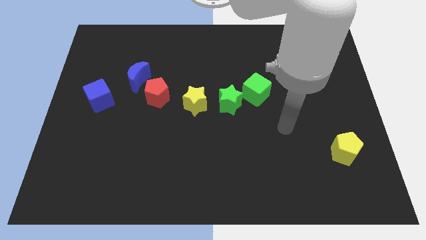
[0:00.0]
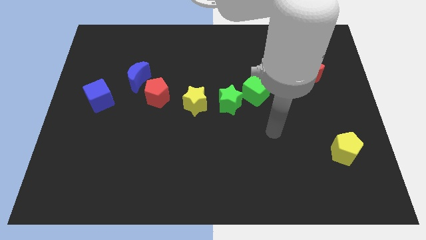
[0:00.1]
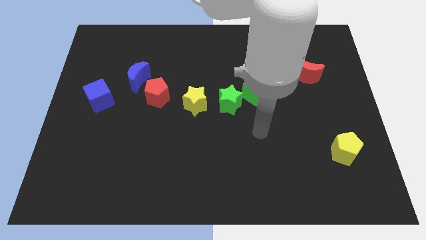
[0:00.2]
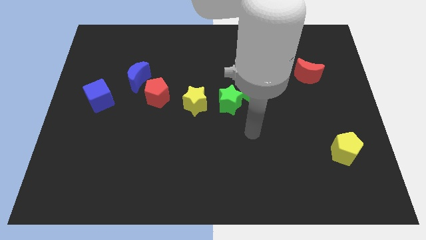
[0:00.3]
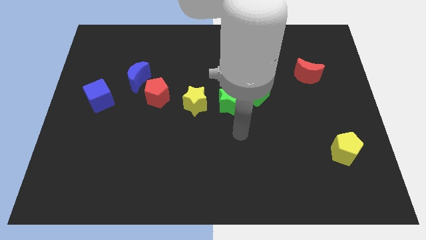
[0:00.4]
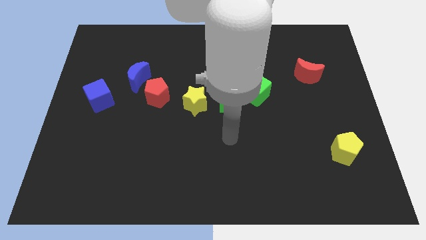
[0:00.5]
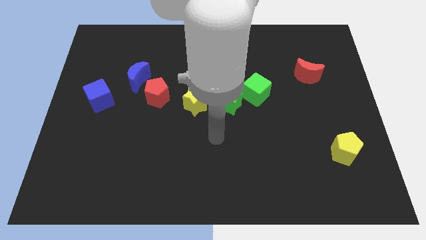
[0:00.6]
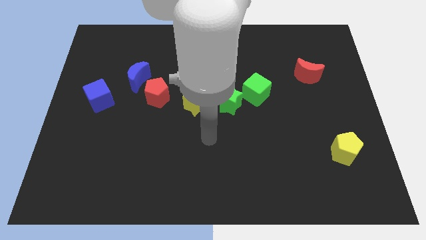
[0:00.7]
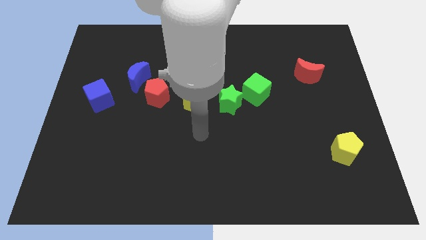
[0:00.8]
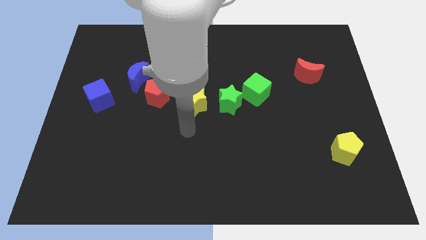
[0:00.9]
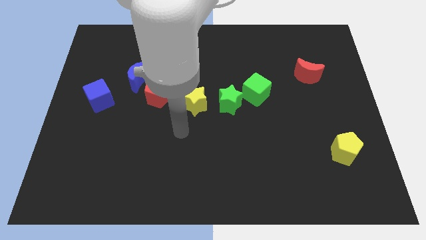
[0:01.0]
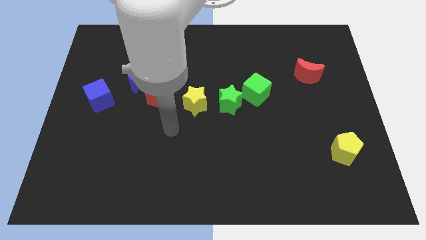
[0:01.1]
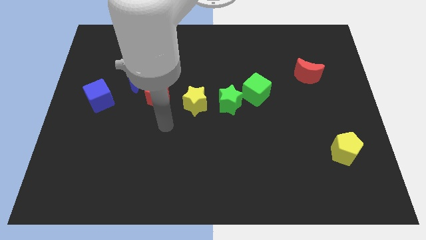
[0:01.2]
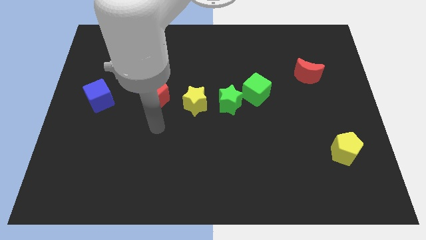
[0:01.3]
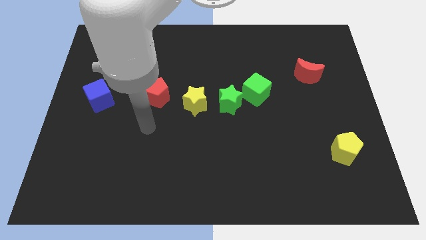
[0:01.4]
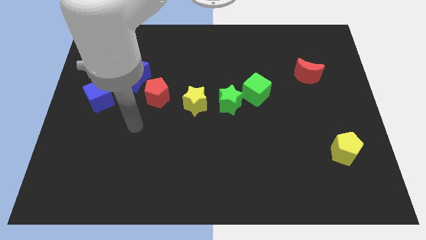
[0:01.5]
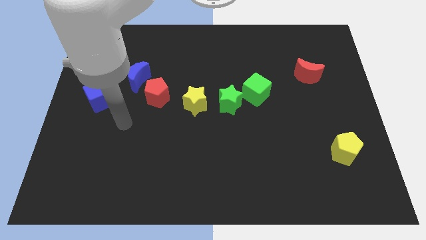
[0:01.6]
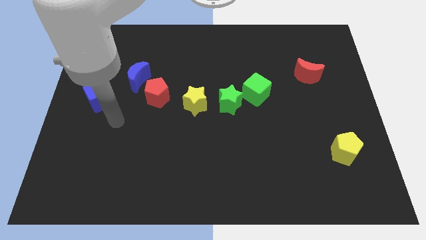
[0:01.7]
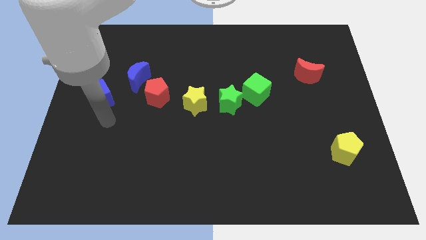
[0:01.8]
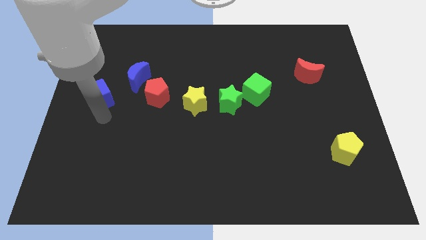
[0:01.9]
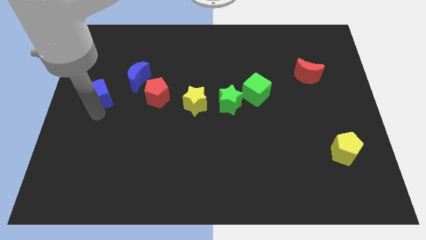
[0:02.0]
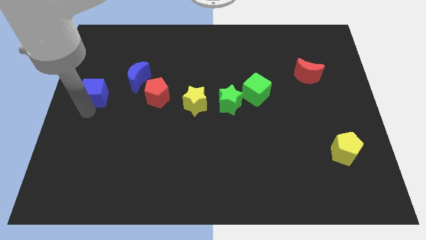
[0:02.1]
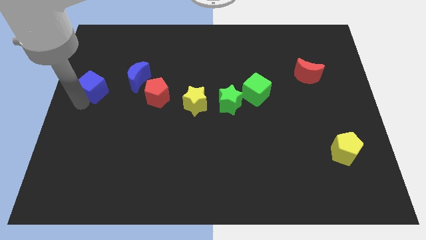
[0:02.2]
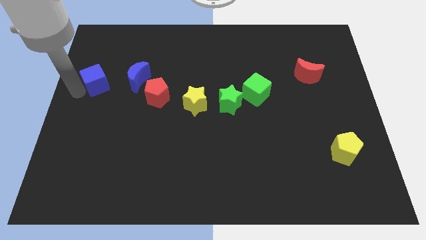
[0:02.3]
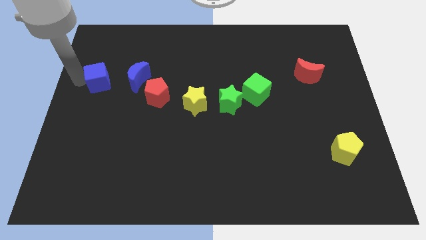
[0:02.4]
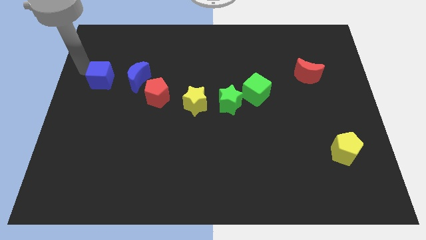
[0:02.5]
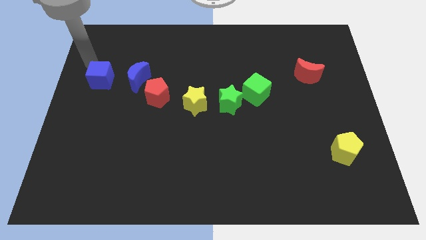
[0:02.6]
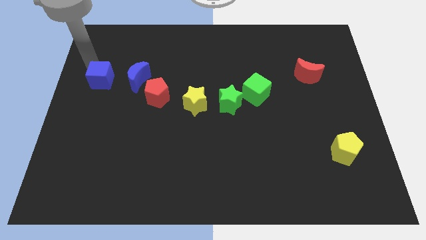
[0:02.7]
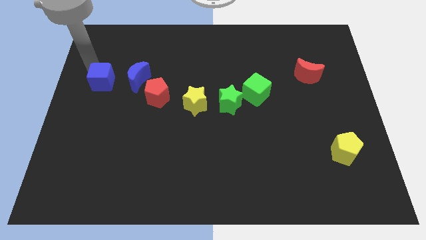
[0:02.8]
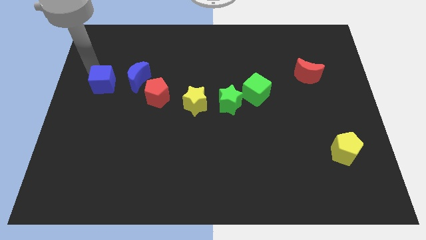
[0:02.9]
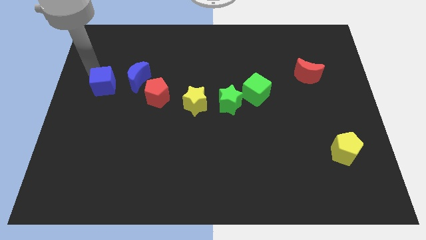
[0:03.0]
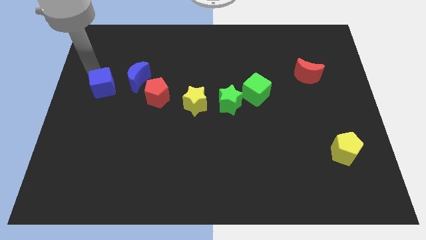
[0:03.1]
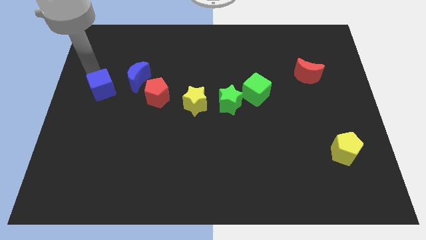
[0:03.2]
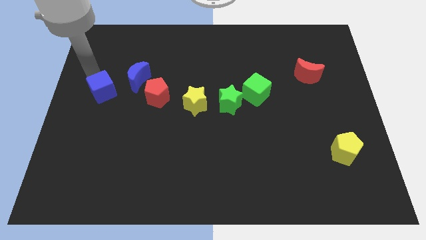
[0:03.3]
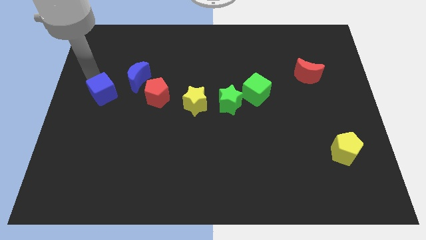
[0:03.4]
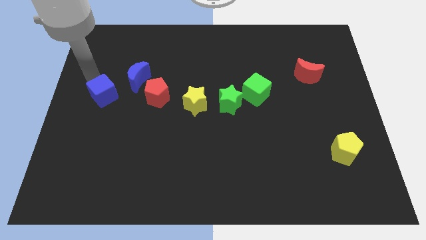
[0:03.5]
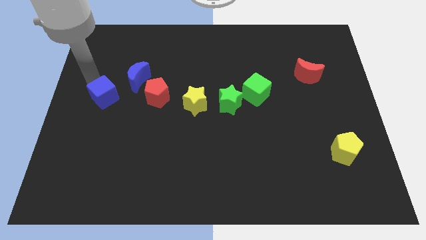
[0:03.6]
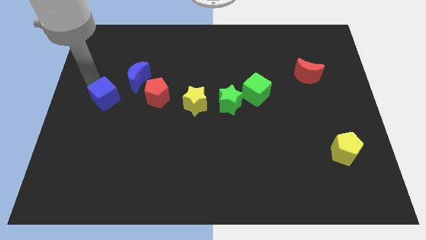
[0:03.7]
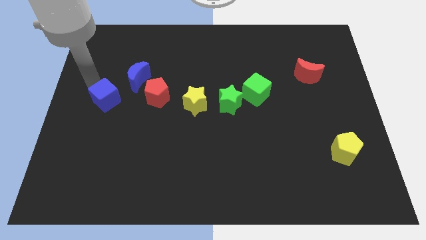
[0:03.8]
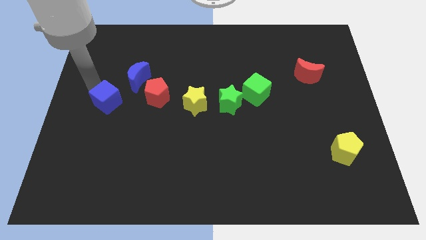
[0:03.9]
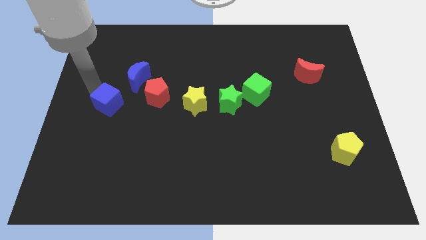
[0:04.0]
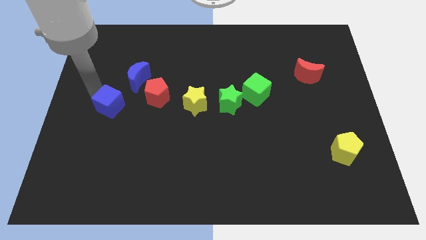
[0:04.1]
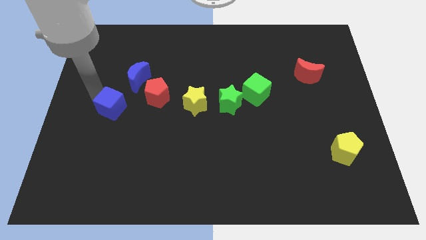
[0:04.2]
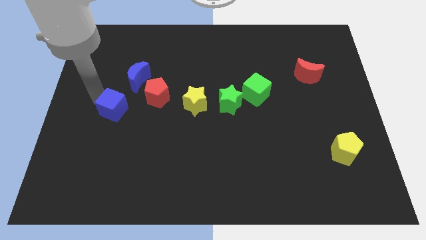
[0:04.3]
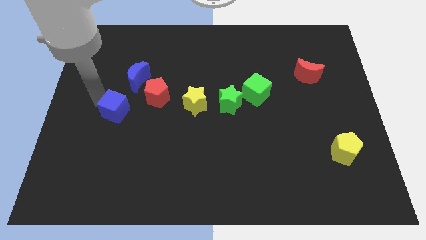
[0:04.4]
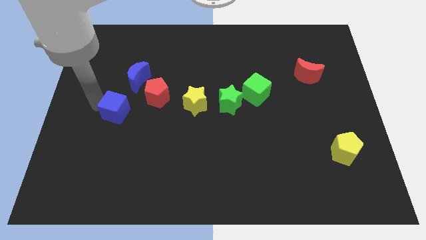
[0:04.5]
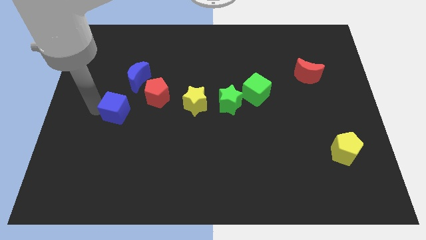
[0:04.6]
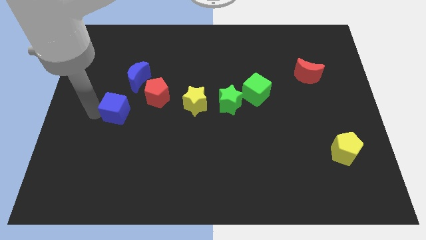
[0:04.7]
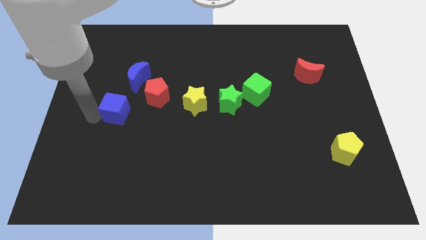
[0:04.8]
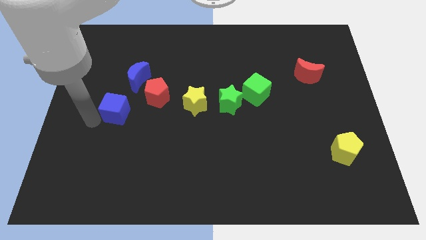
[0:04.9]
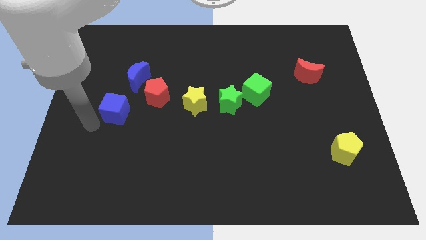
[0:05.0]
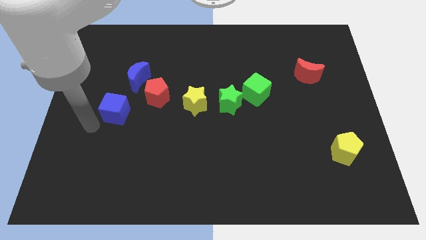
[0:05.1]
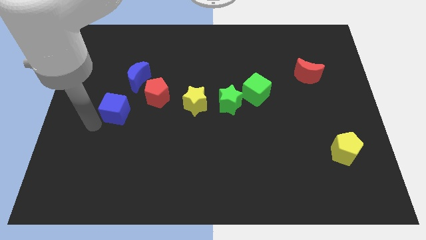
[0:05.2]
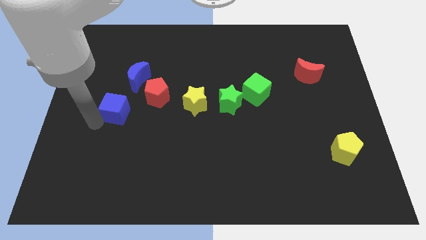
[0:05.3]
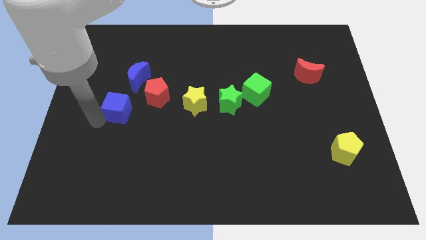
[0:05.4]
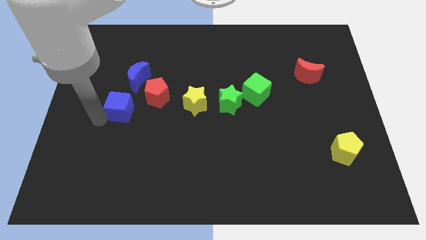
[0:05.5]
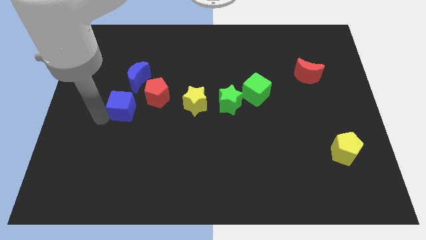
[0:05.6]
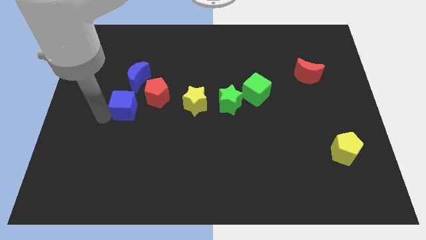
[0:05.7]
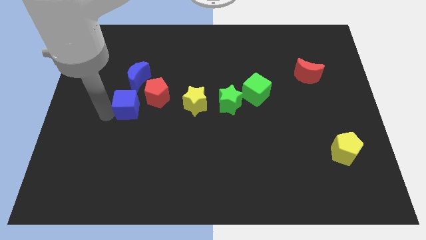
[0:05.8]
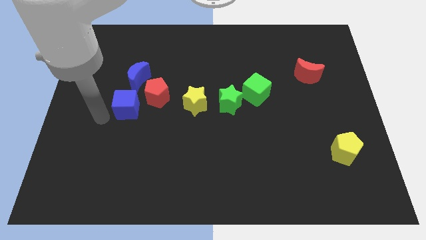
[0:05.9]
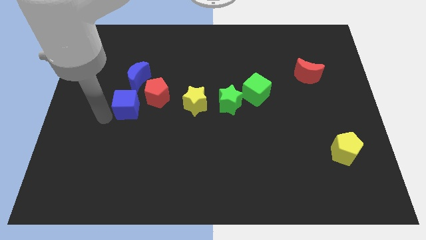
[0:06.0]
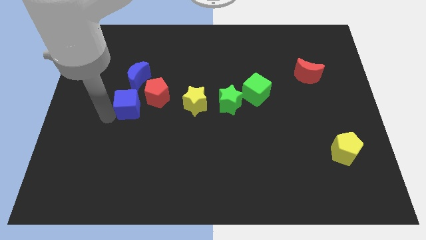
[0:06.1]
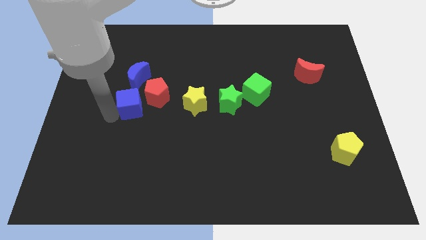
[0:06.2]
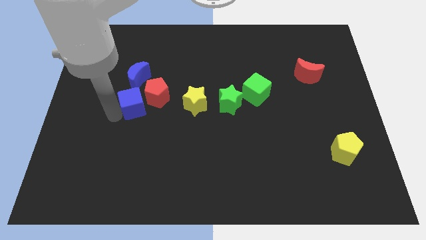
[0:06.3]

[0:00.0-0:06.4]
put the blue cube next to the red pentagon

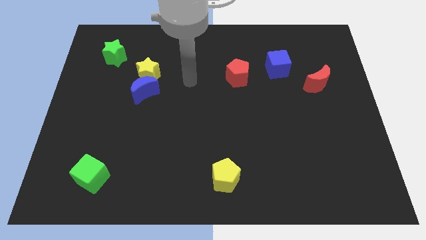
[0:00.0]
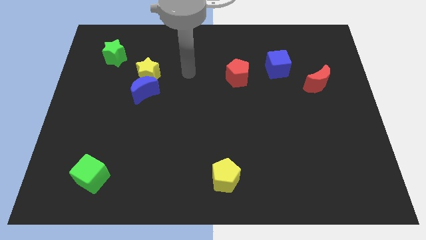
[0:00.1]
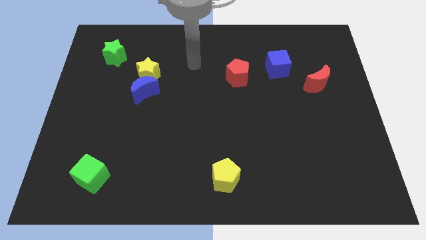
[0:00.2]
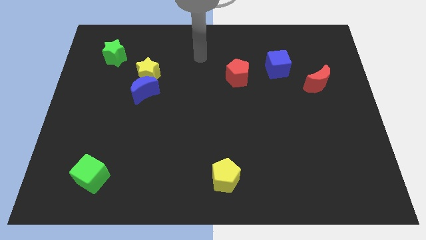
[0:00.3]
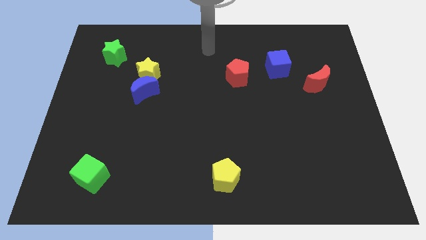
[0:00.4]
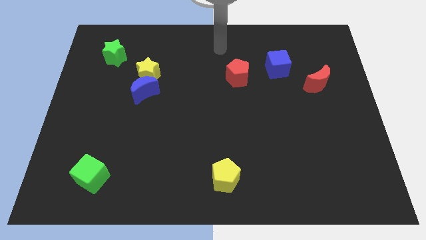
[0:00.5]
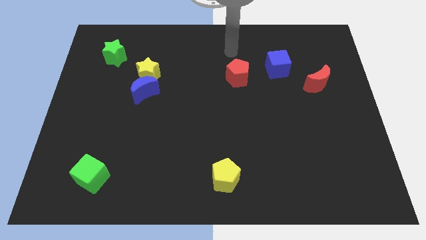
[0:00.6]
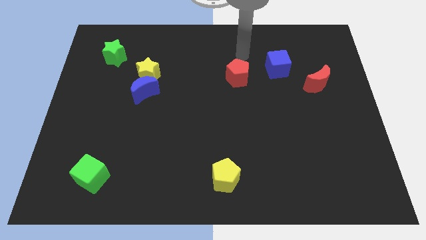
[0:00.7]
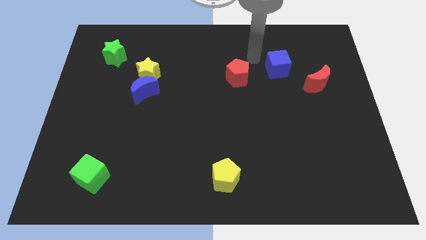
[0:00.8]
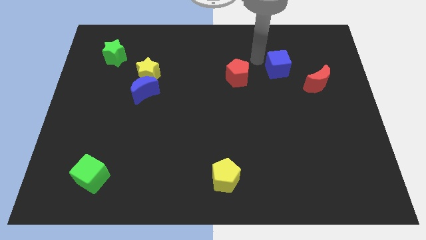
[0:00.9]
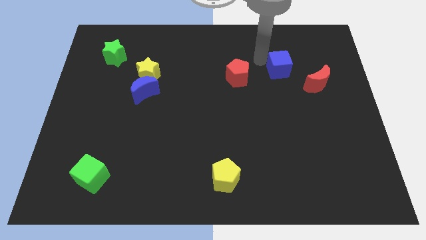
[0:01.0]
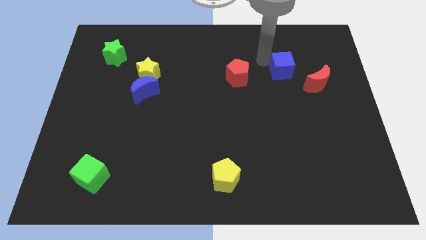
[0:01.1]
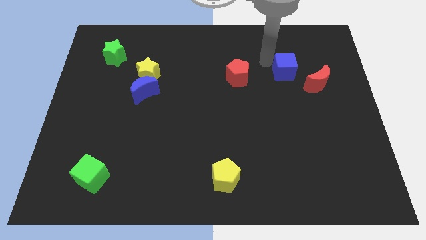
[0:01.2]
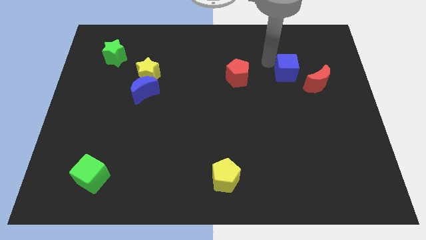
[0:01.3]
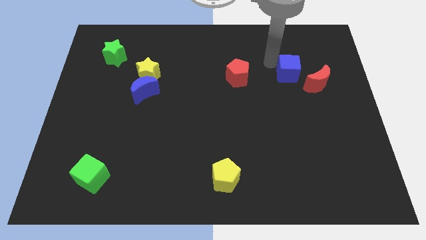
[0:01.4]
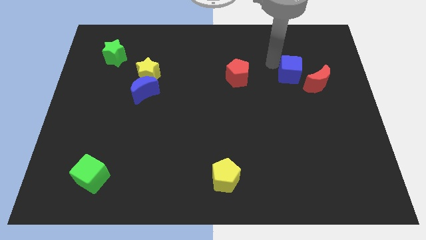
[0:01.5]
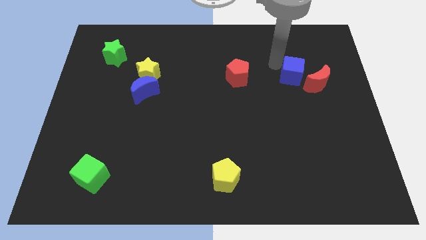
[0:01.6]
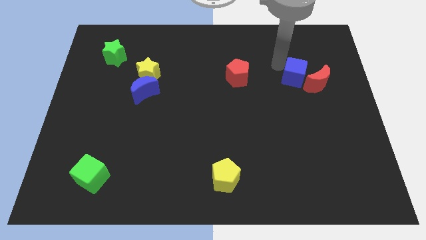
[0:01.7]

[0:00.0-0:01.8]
put the blue cube to the red moon
